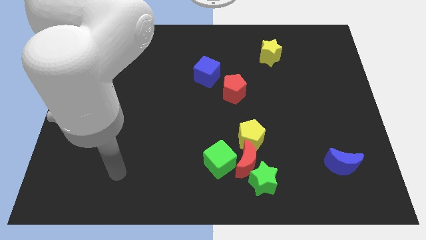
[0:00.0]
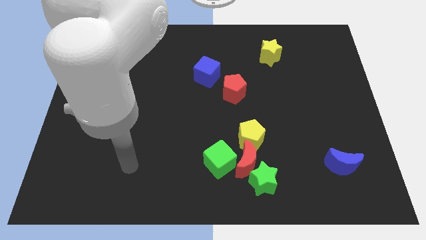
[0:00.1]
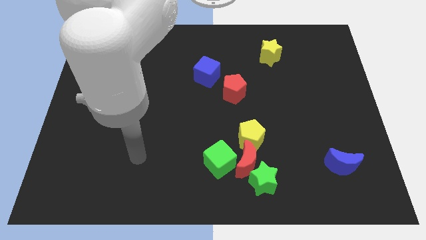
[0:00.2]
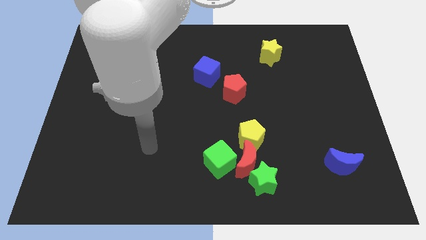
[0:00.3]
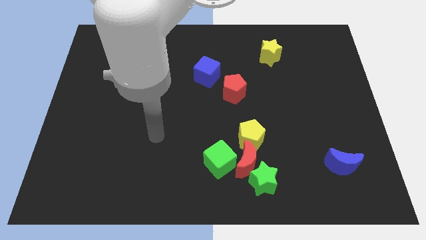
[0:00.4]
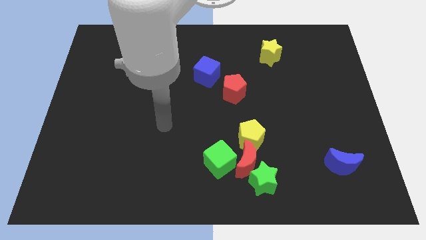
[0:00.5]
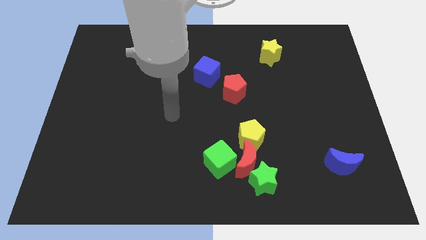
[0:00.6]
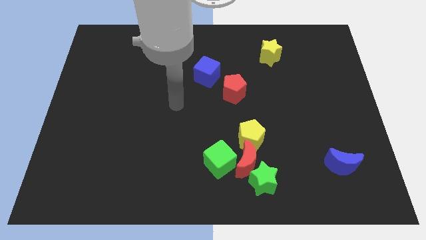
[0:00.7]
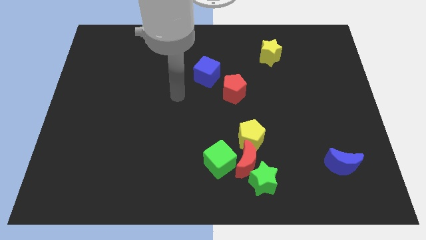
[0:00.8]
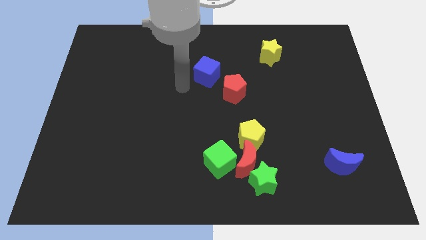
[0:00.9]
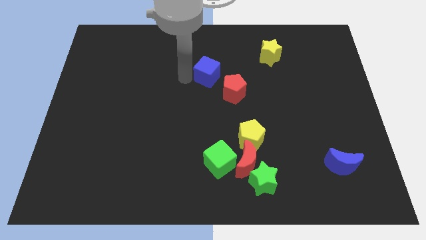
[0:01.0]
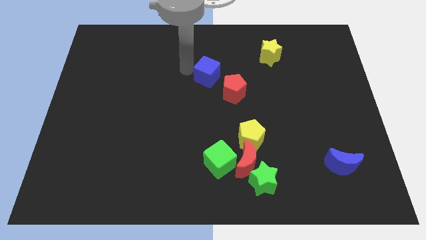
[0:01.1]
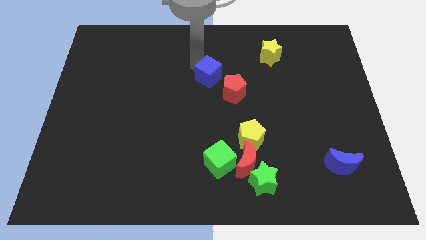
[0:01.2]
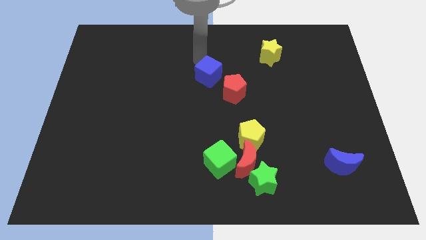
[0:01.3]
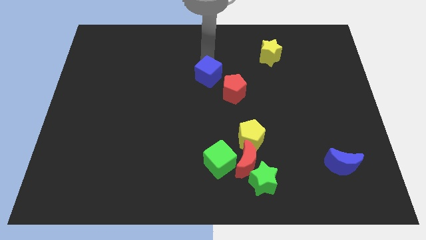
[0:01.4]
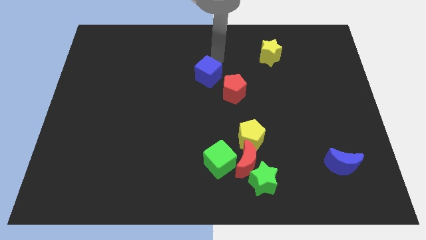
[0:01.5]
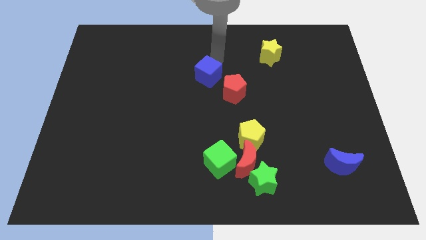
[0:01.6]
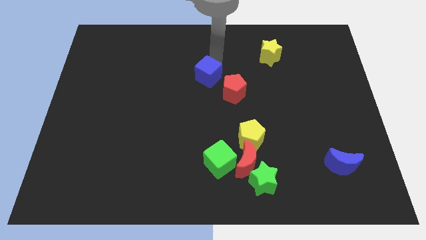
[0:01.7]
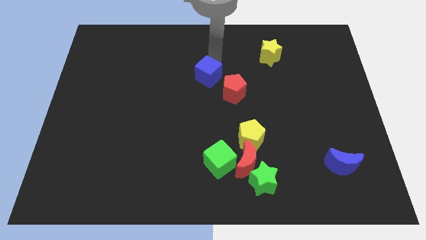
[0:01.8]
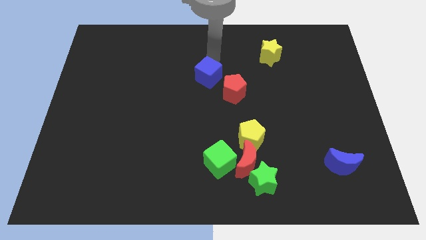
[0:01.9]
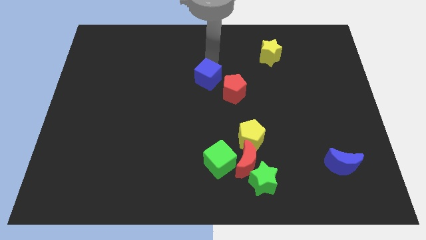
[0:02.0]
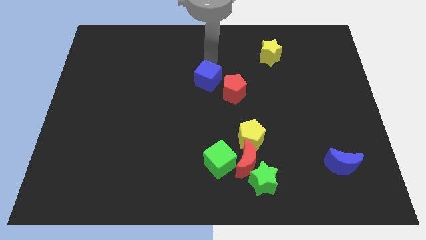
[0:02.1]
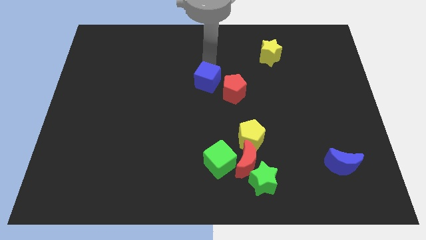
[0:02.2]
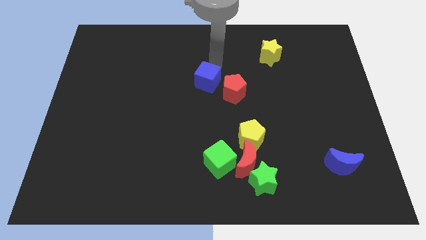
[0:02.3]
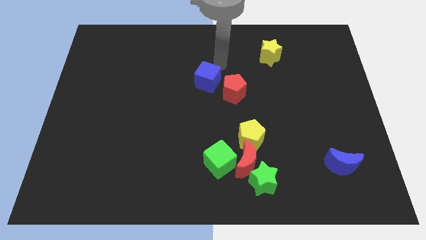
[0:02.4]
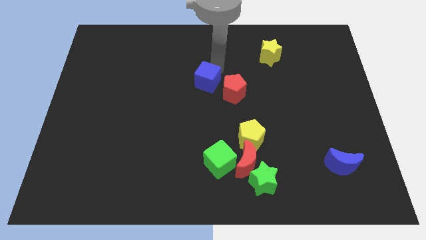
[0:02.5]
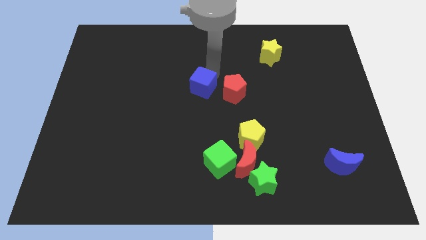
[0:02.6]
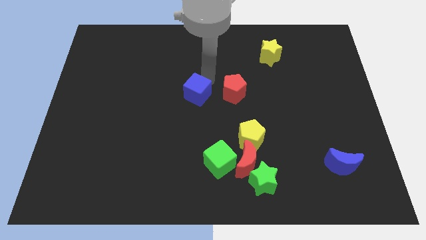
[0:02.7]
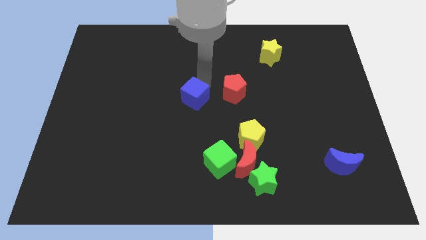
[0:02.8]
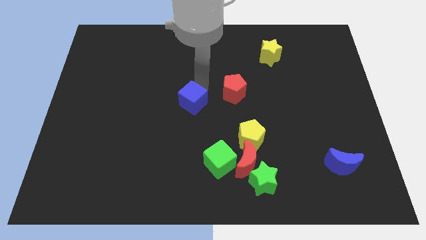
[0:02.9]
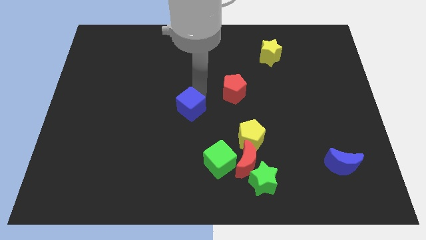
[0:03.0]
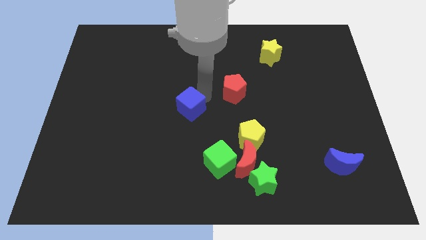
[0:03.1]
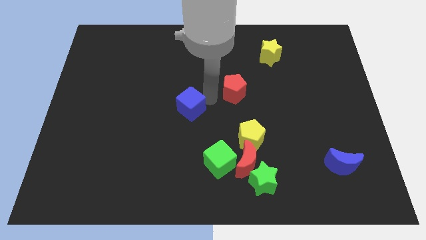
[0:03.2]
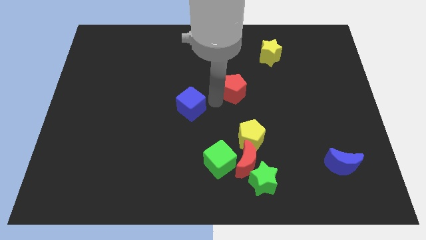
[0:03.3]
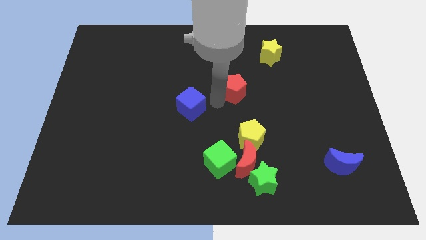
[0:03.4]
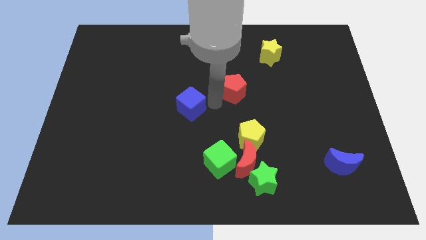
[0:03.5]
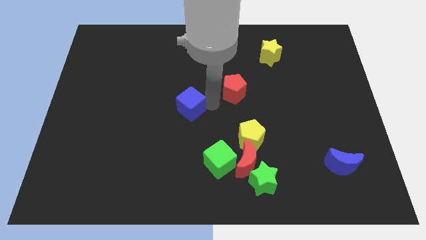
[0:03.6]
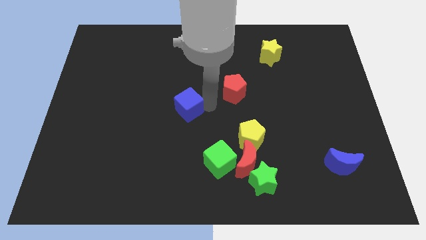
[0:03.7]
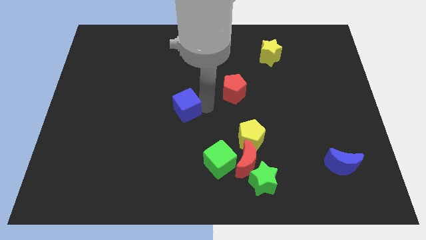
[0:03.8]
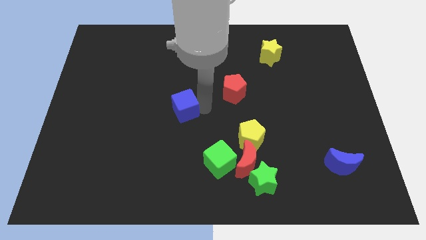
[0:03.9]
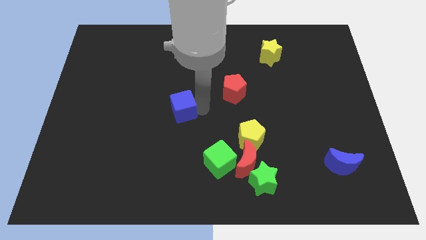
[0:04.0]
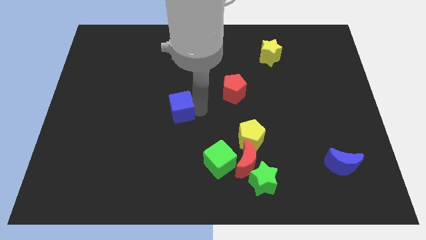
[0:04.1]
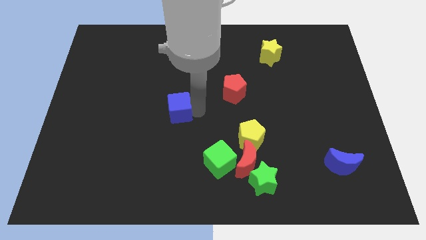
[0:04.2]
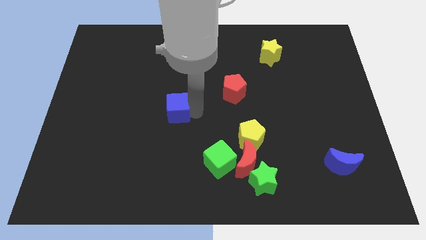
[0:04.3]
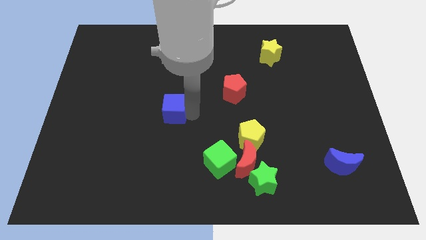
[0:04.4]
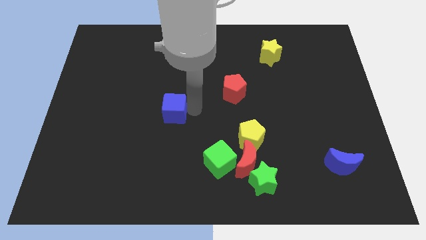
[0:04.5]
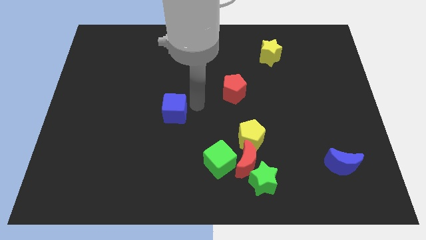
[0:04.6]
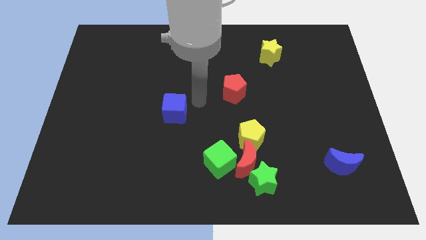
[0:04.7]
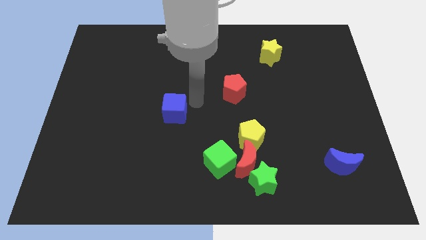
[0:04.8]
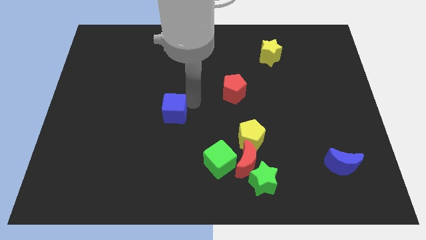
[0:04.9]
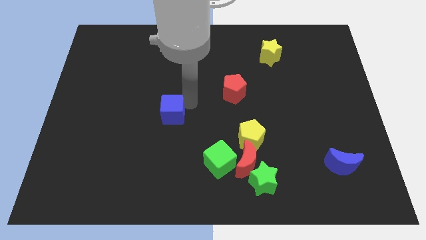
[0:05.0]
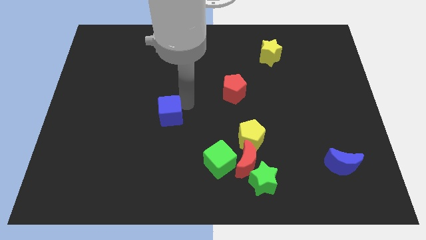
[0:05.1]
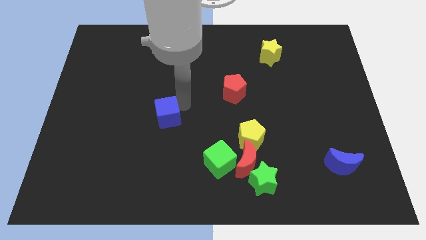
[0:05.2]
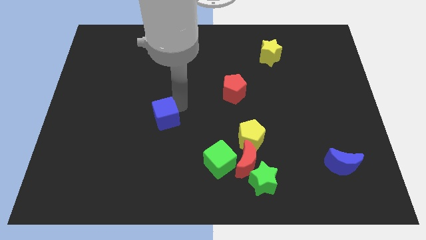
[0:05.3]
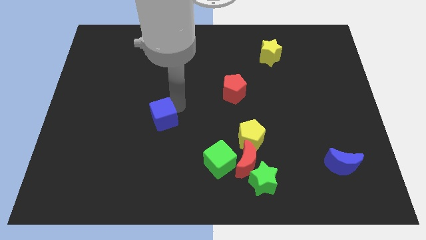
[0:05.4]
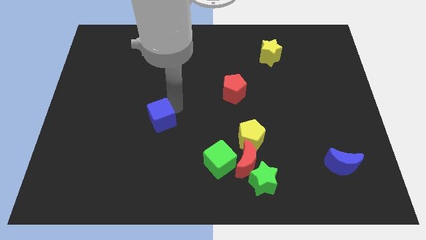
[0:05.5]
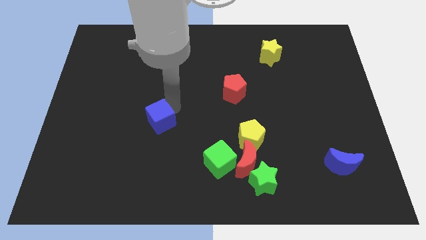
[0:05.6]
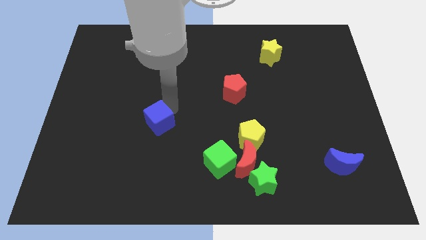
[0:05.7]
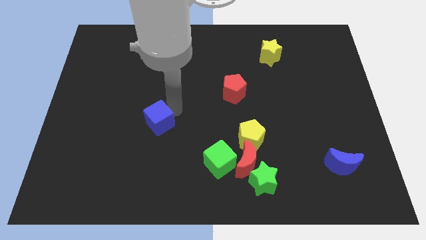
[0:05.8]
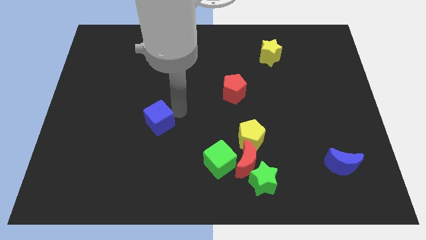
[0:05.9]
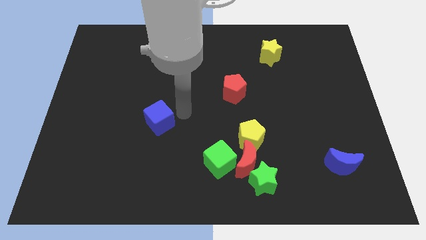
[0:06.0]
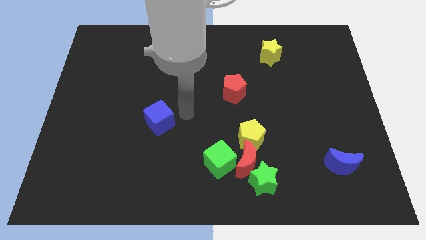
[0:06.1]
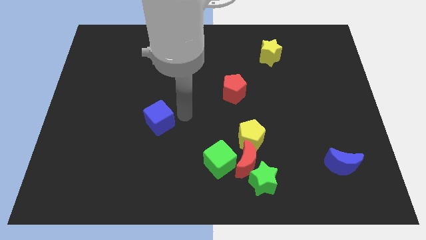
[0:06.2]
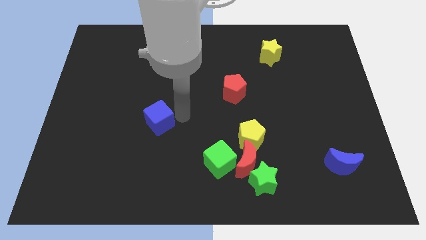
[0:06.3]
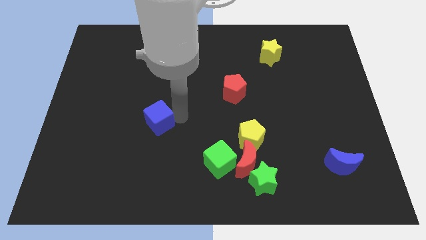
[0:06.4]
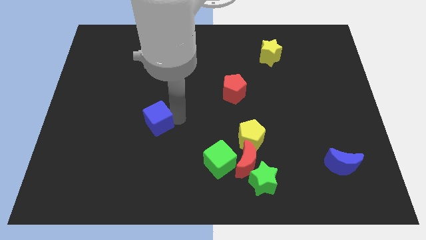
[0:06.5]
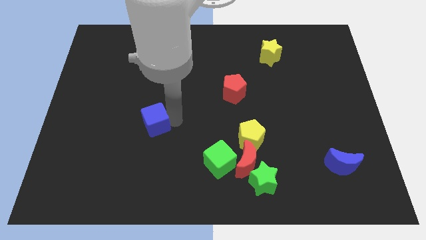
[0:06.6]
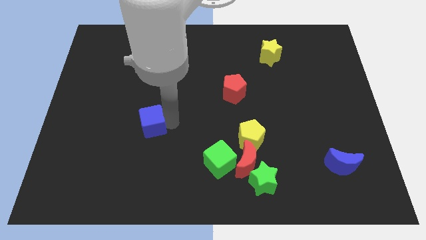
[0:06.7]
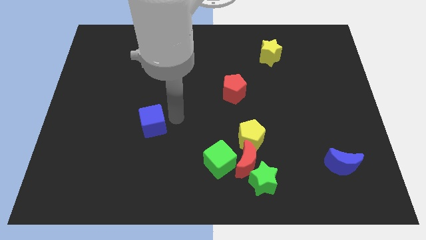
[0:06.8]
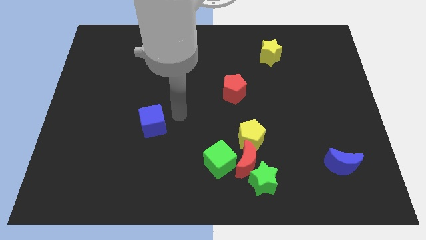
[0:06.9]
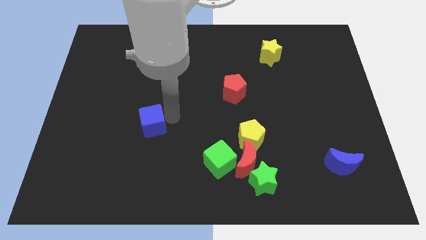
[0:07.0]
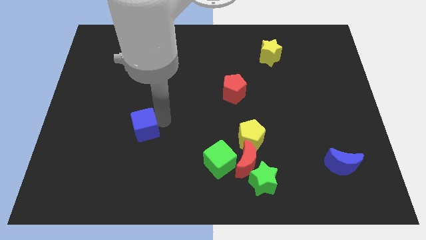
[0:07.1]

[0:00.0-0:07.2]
push the blue cube downwards and then left

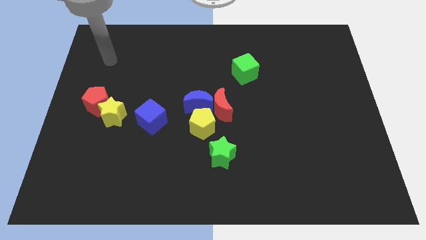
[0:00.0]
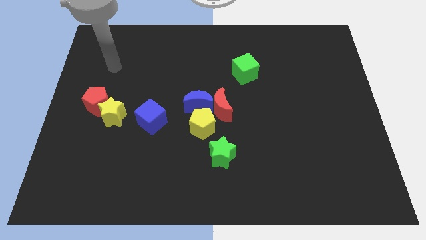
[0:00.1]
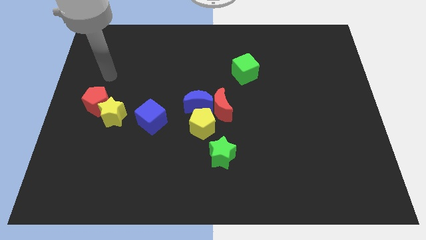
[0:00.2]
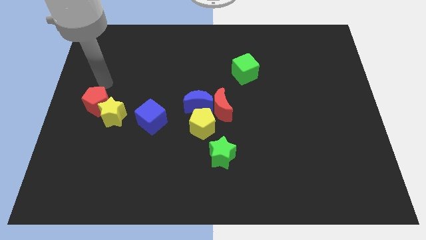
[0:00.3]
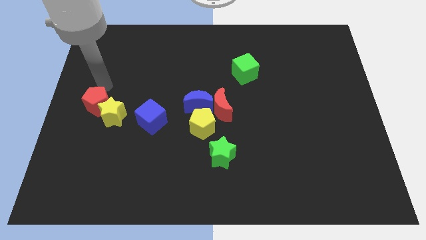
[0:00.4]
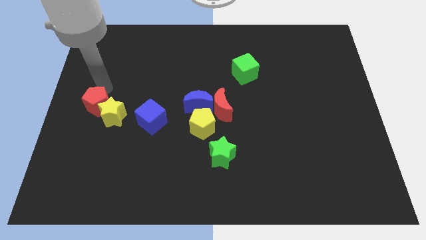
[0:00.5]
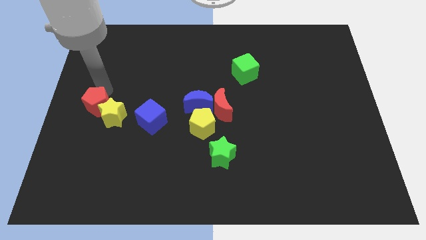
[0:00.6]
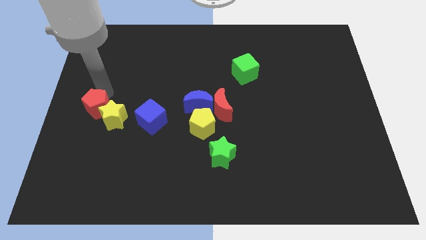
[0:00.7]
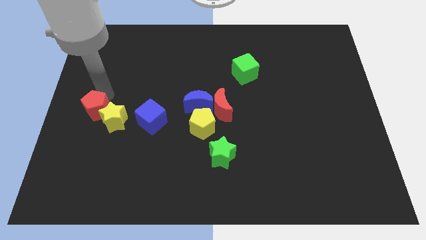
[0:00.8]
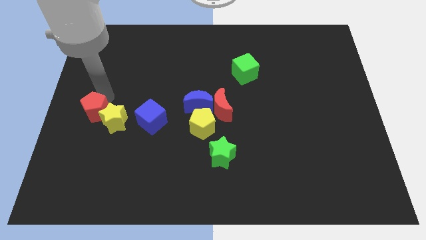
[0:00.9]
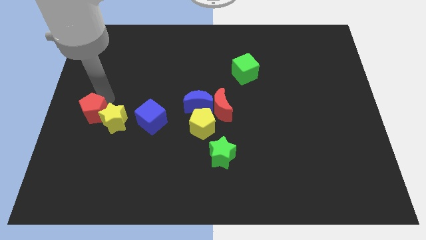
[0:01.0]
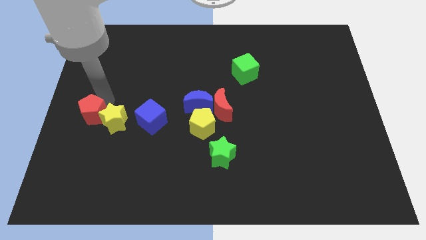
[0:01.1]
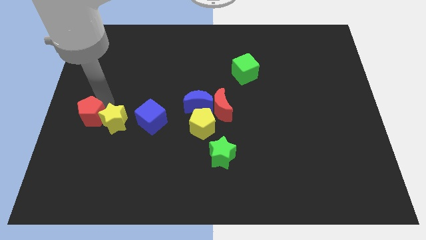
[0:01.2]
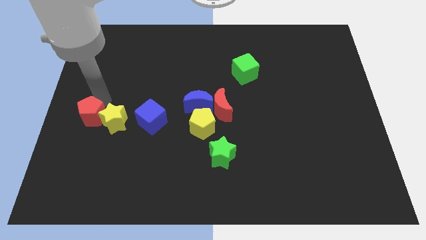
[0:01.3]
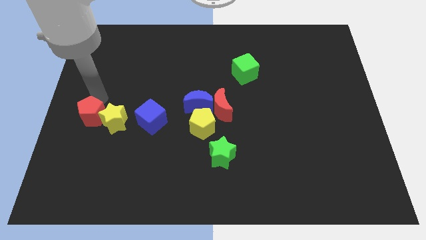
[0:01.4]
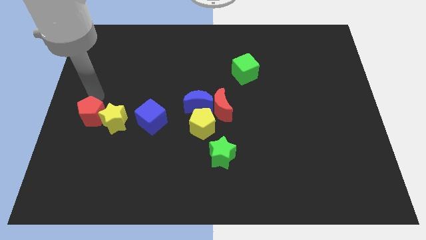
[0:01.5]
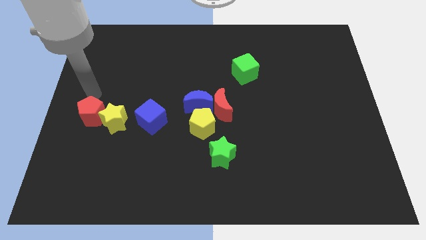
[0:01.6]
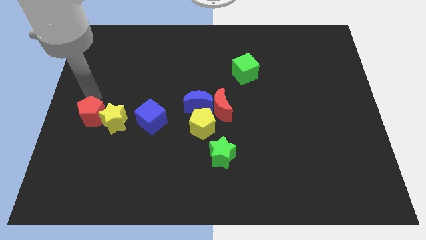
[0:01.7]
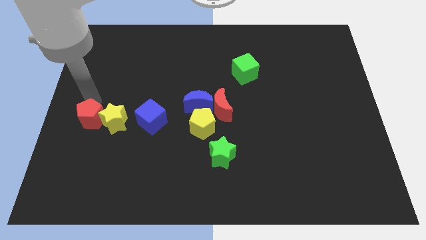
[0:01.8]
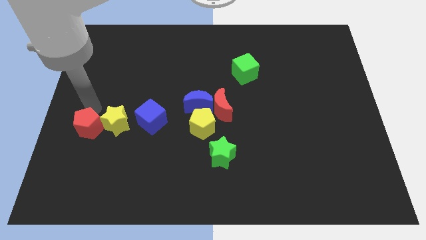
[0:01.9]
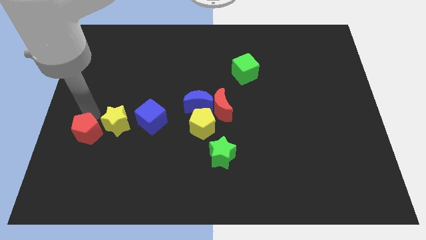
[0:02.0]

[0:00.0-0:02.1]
move the red pentagon down a little bit
